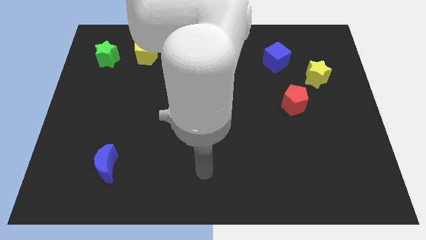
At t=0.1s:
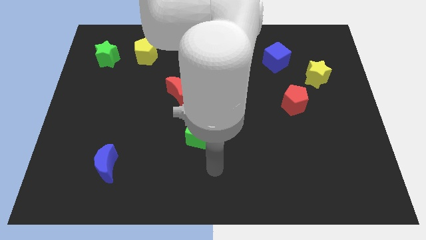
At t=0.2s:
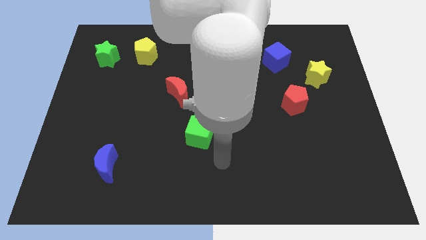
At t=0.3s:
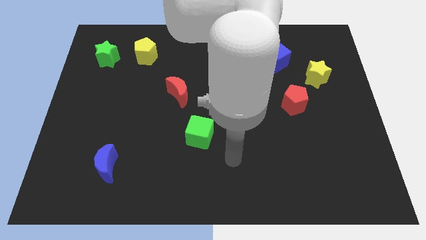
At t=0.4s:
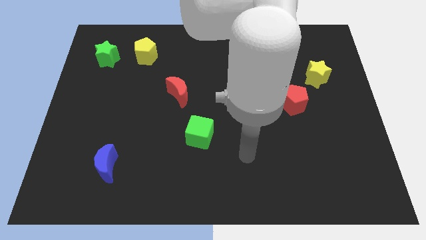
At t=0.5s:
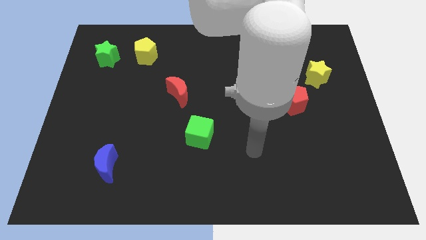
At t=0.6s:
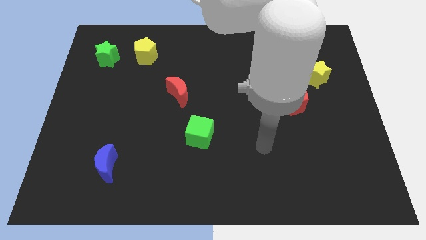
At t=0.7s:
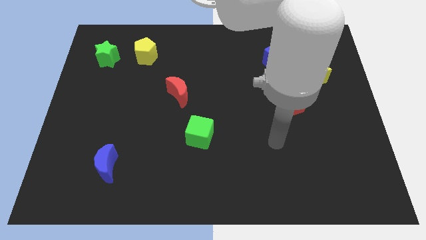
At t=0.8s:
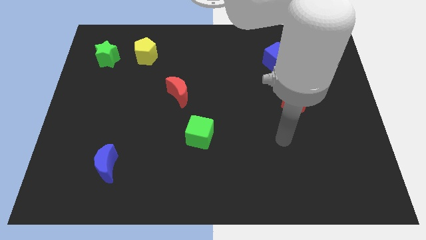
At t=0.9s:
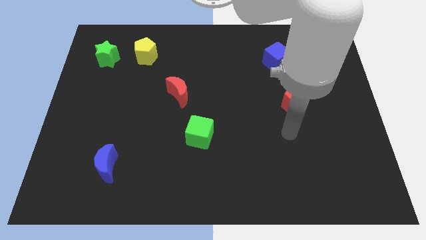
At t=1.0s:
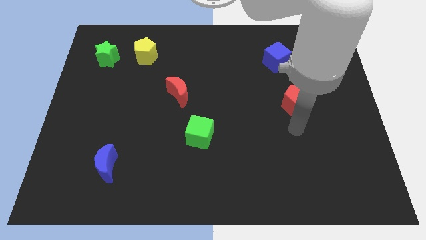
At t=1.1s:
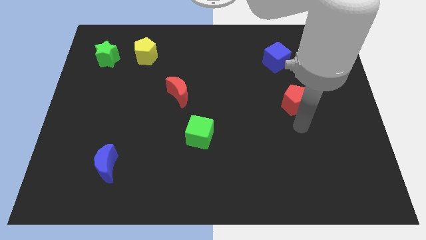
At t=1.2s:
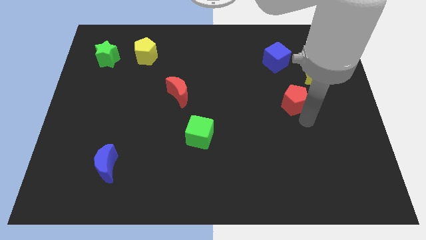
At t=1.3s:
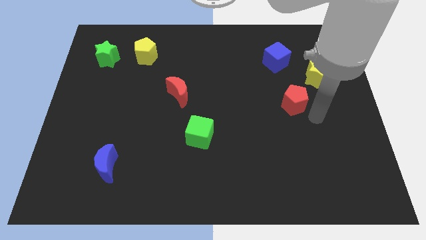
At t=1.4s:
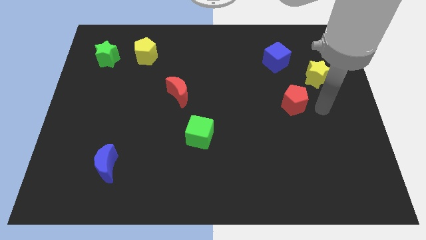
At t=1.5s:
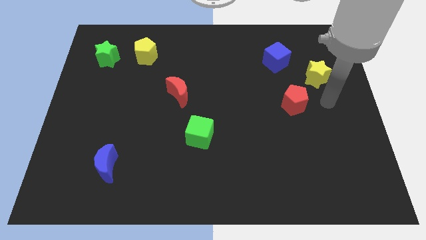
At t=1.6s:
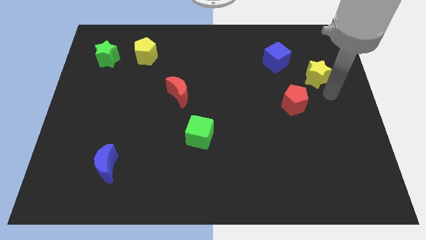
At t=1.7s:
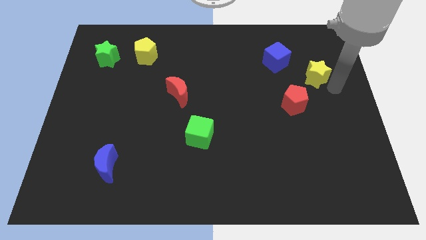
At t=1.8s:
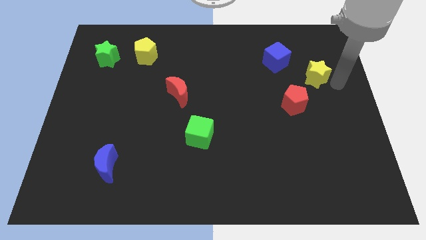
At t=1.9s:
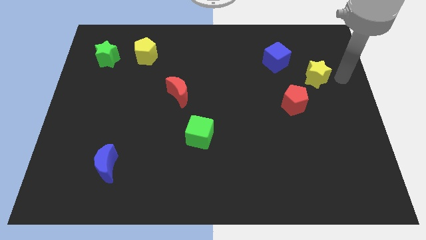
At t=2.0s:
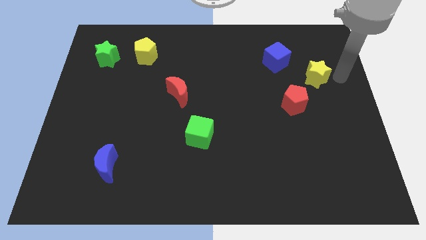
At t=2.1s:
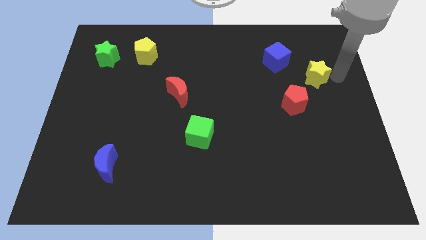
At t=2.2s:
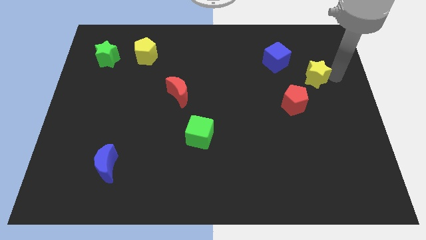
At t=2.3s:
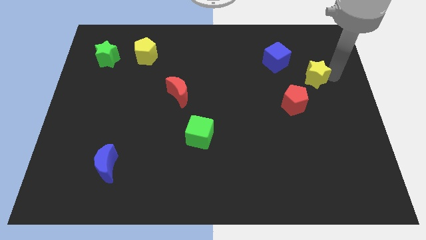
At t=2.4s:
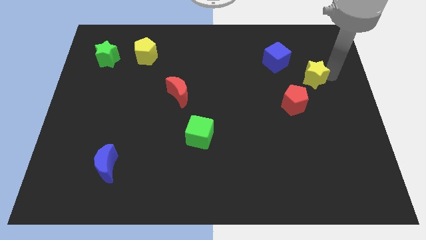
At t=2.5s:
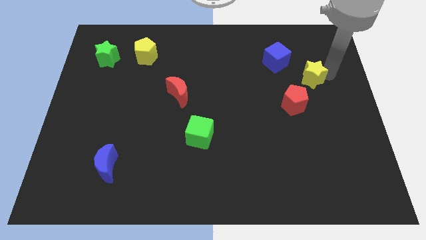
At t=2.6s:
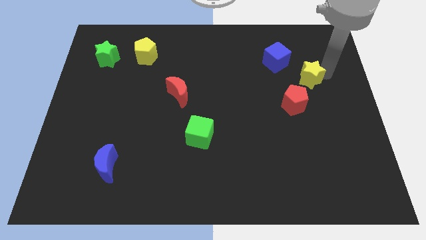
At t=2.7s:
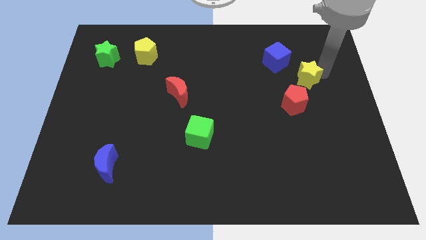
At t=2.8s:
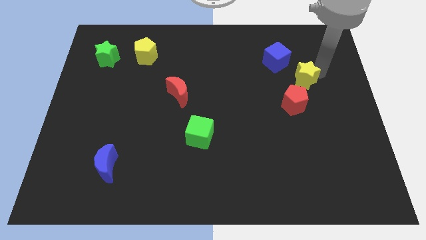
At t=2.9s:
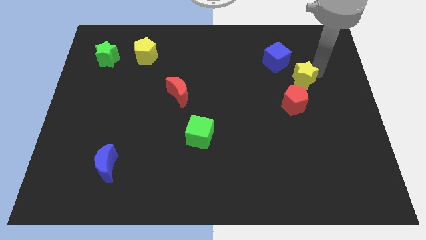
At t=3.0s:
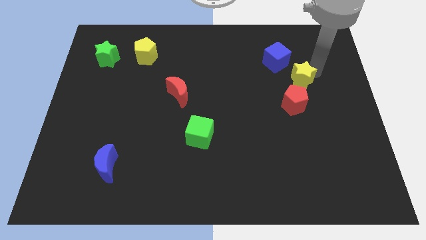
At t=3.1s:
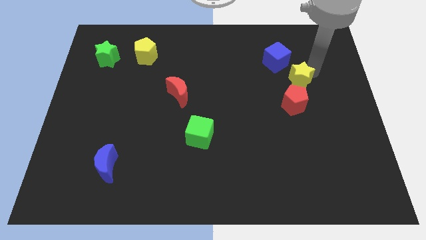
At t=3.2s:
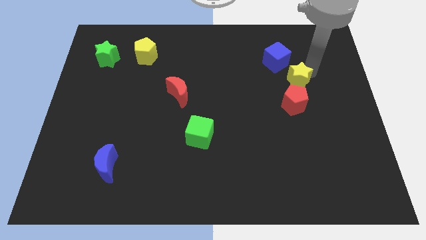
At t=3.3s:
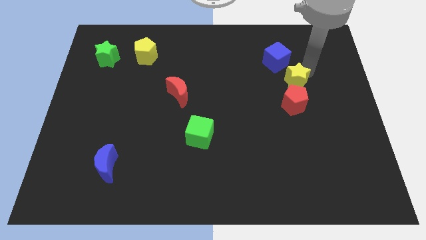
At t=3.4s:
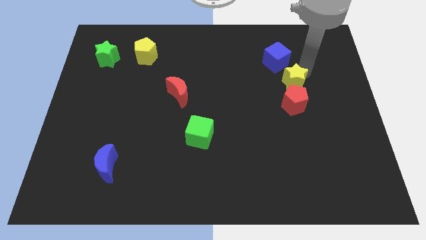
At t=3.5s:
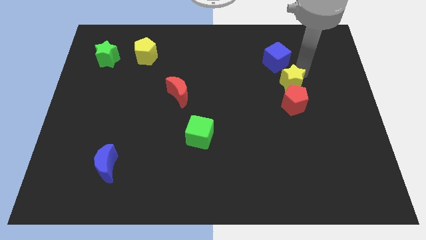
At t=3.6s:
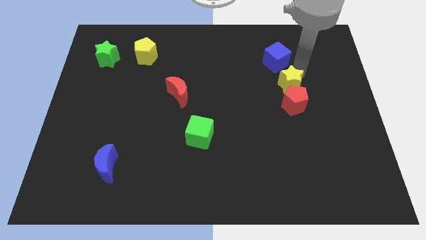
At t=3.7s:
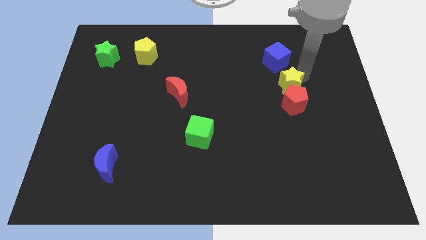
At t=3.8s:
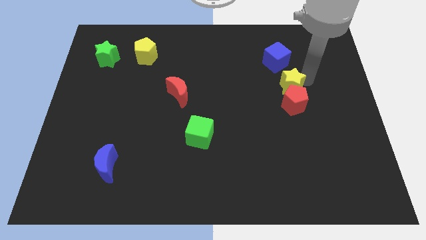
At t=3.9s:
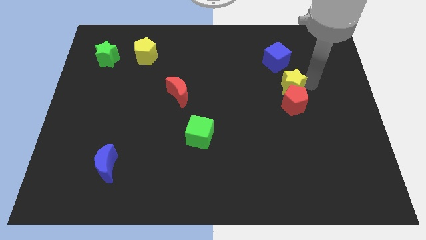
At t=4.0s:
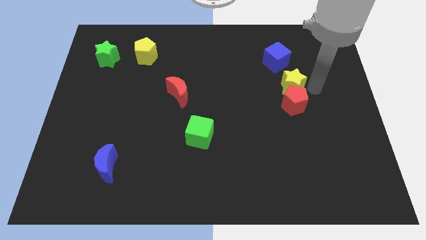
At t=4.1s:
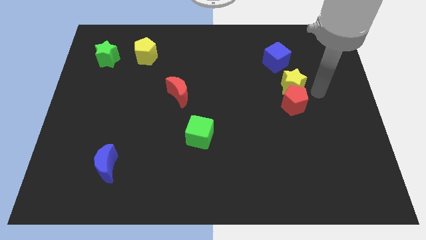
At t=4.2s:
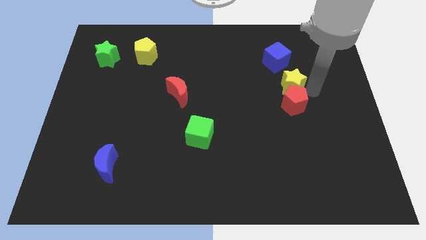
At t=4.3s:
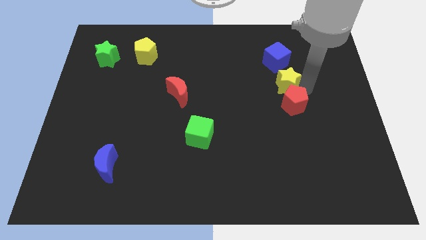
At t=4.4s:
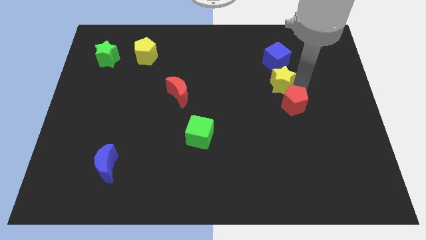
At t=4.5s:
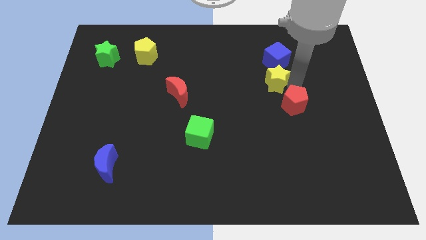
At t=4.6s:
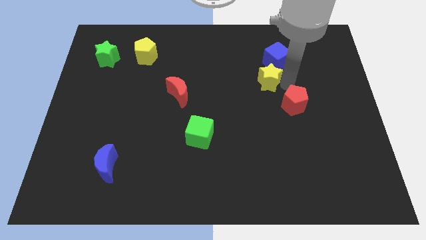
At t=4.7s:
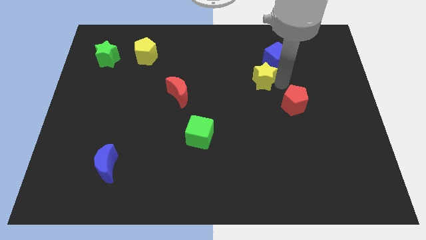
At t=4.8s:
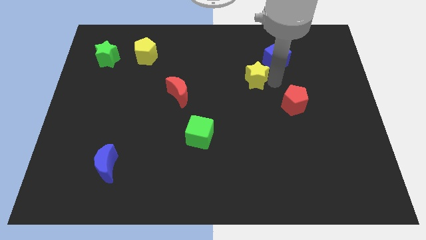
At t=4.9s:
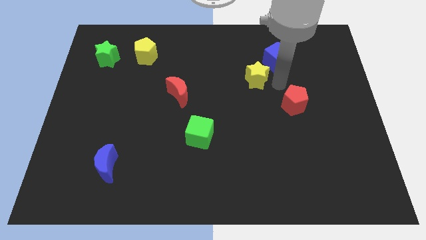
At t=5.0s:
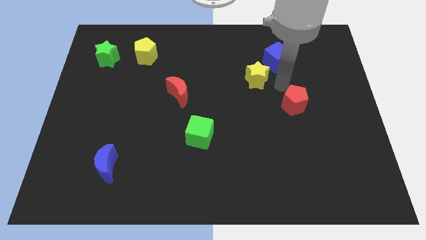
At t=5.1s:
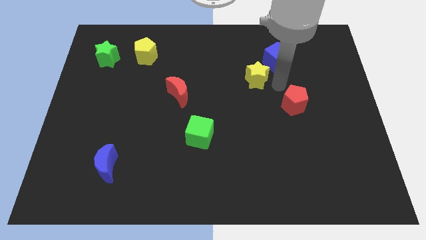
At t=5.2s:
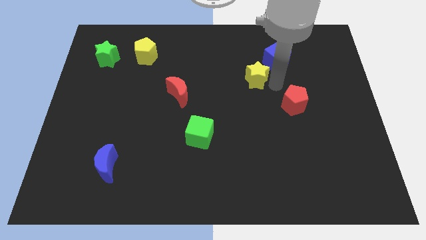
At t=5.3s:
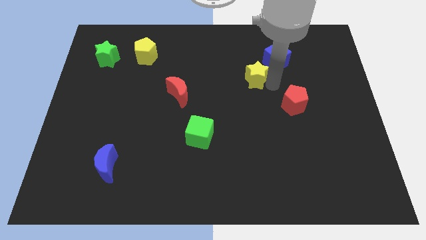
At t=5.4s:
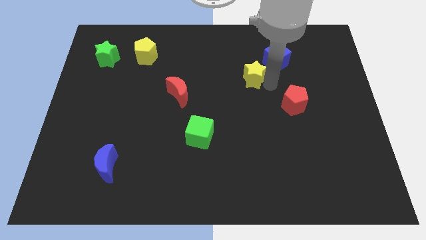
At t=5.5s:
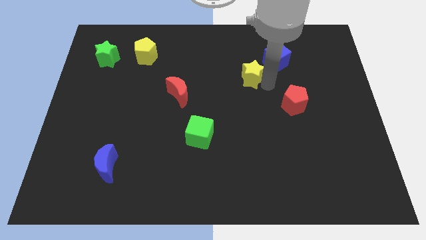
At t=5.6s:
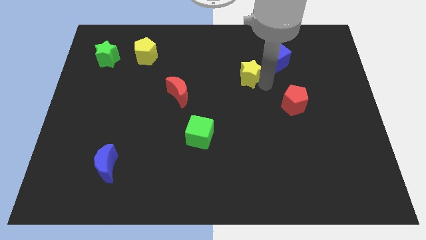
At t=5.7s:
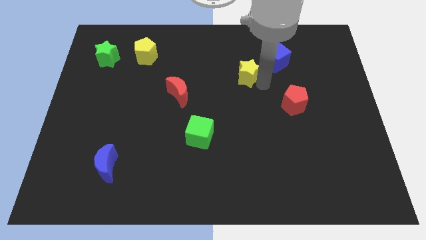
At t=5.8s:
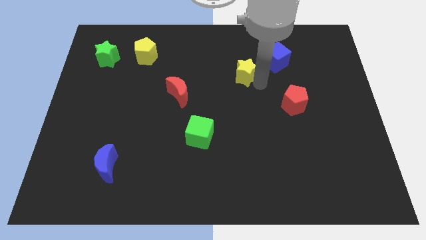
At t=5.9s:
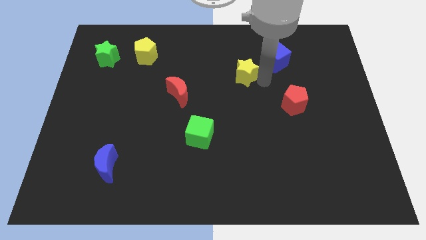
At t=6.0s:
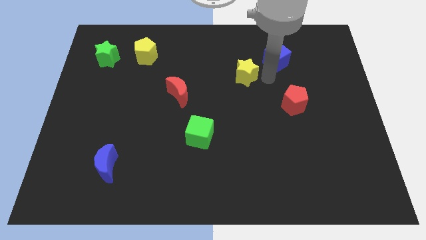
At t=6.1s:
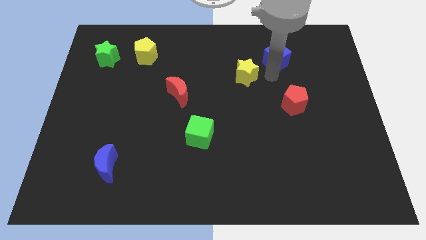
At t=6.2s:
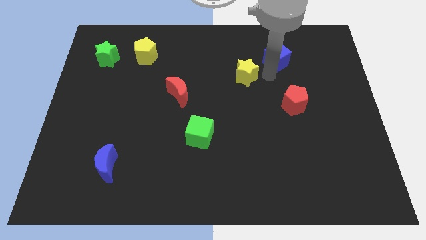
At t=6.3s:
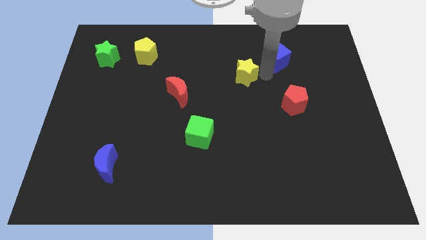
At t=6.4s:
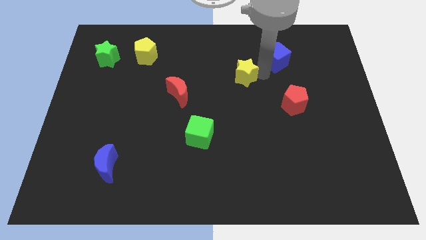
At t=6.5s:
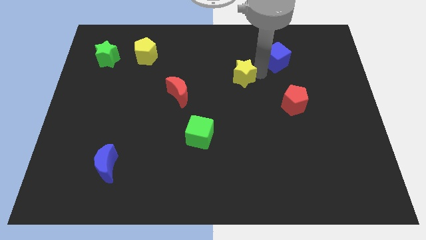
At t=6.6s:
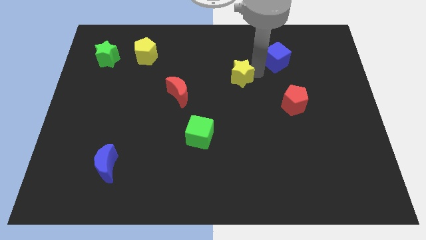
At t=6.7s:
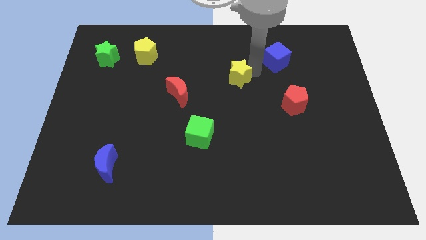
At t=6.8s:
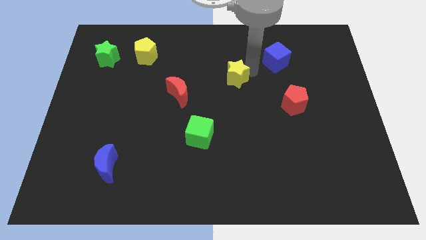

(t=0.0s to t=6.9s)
move the yellow star to the left

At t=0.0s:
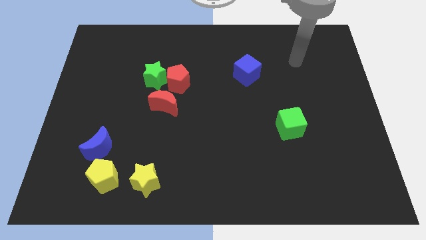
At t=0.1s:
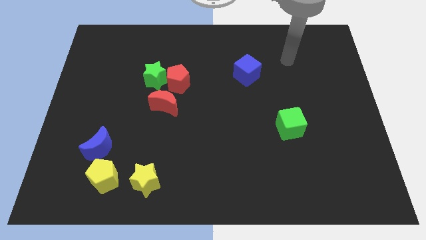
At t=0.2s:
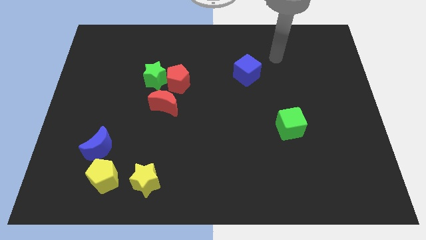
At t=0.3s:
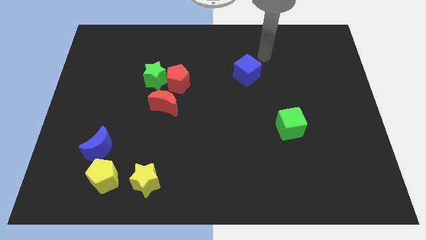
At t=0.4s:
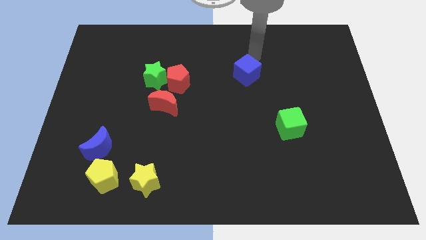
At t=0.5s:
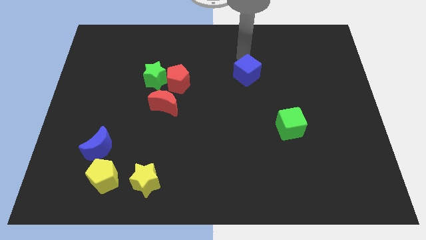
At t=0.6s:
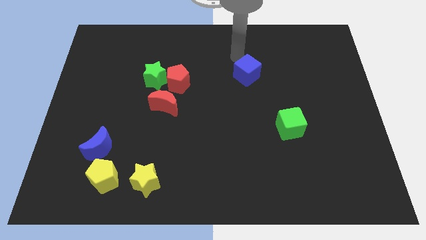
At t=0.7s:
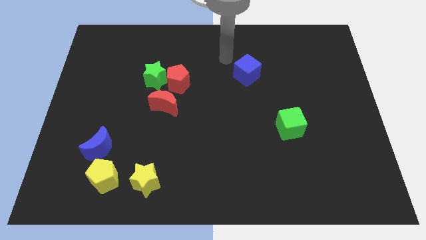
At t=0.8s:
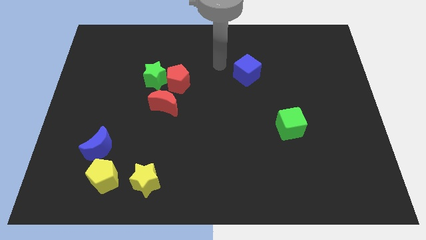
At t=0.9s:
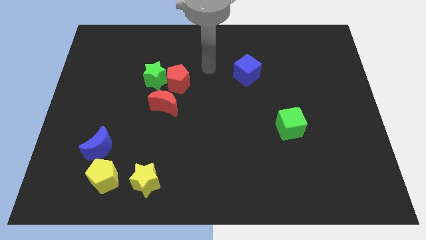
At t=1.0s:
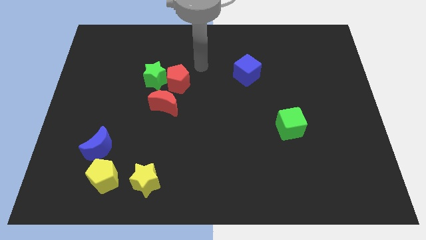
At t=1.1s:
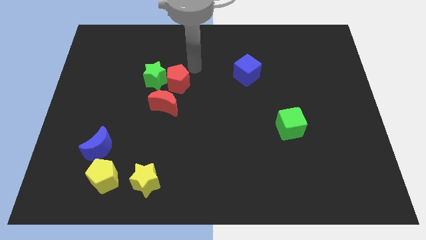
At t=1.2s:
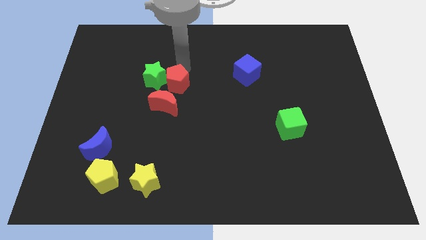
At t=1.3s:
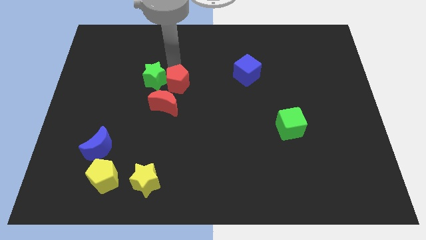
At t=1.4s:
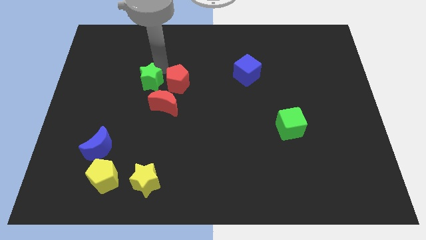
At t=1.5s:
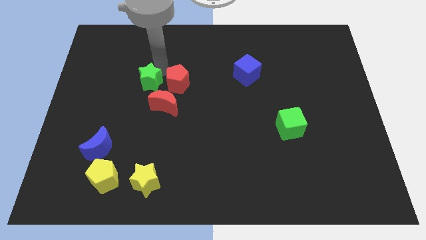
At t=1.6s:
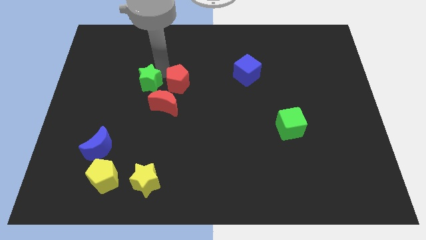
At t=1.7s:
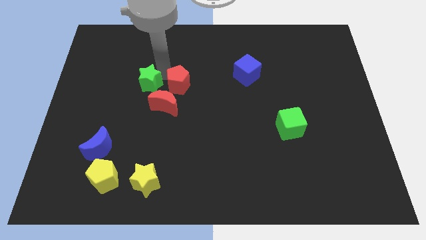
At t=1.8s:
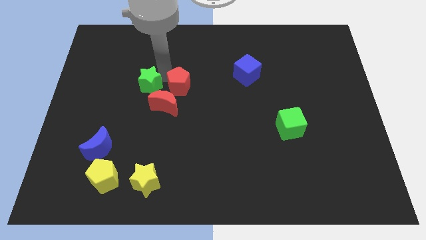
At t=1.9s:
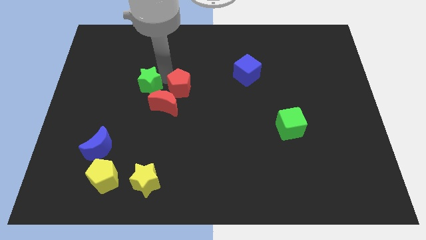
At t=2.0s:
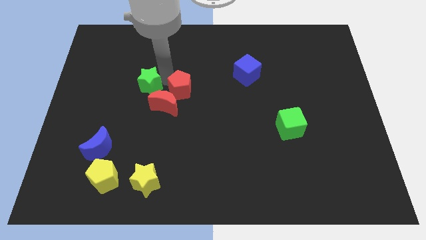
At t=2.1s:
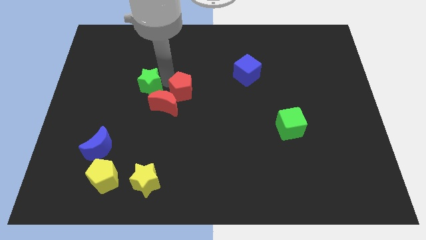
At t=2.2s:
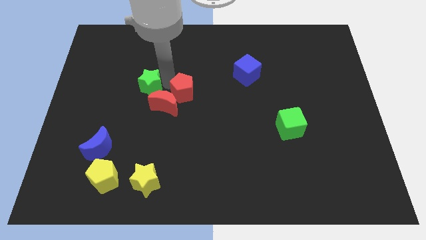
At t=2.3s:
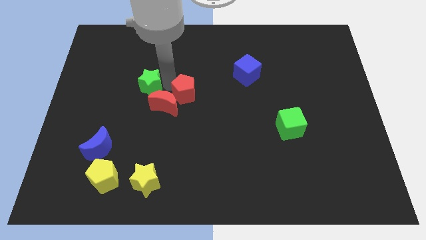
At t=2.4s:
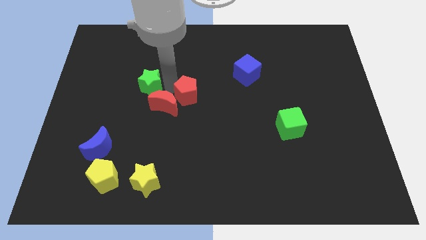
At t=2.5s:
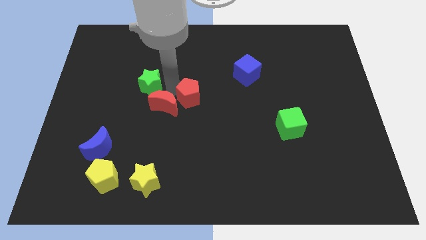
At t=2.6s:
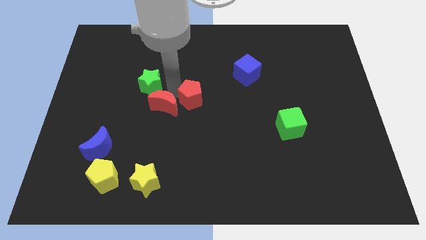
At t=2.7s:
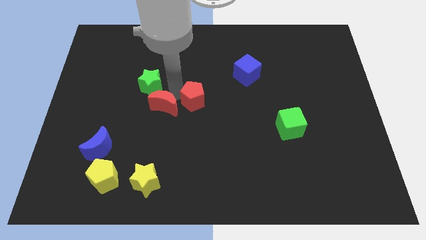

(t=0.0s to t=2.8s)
move the red pentagon downwards and to the right diagonally slightly
